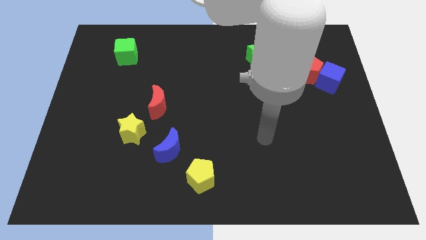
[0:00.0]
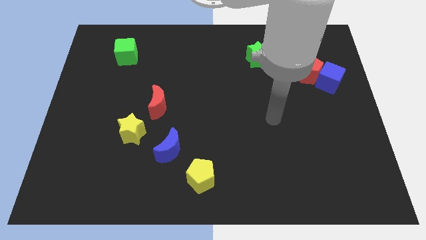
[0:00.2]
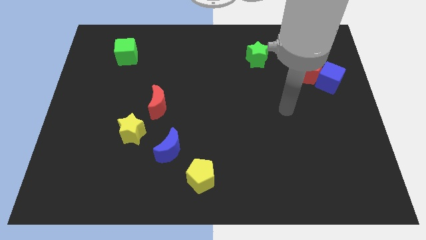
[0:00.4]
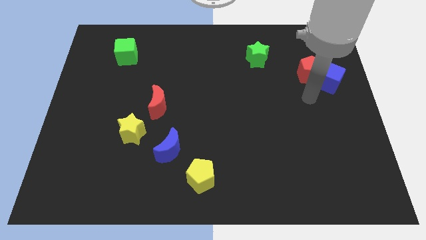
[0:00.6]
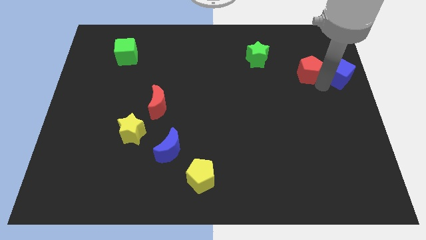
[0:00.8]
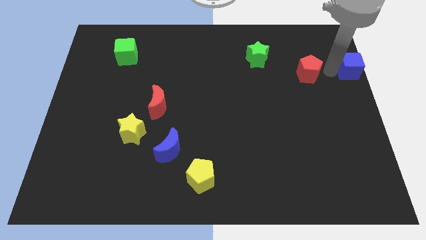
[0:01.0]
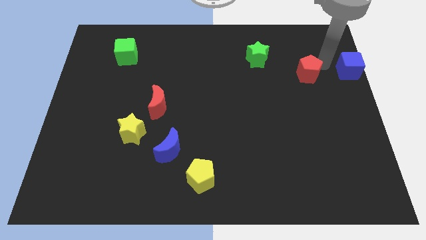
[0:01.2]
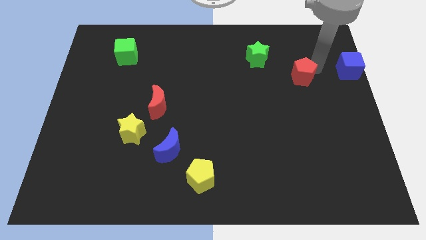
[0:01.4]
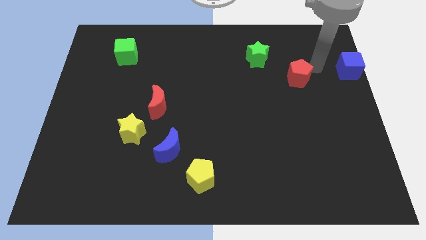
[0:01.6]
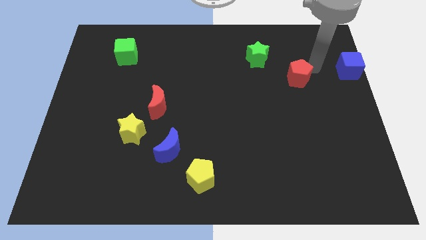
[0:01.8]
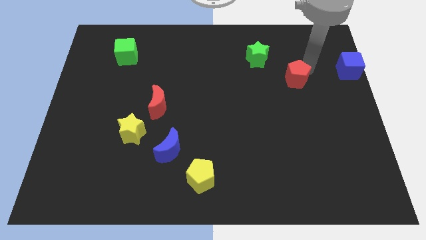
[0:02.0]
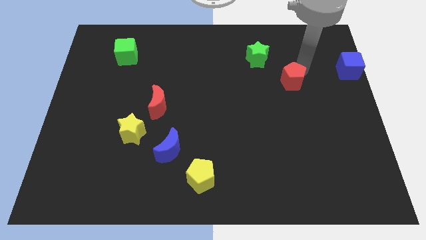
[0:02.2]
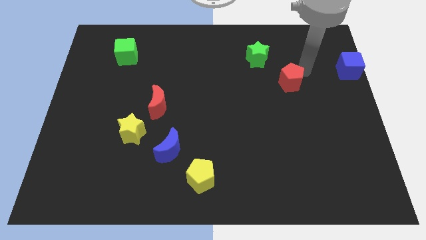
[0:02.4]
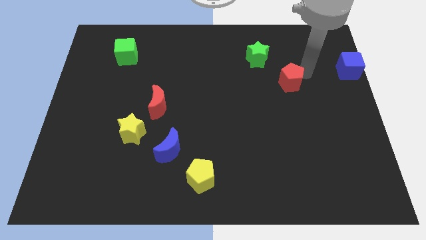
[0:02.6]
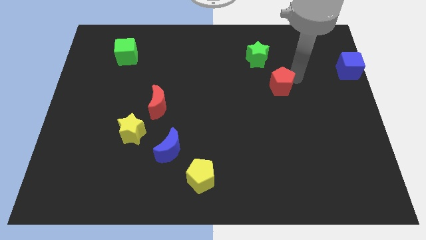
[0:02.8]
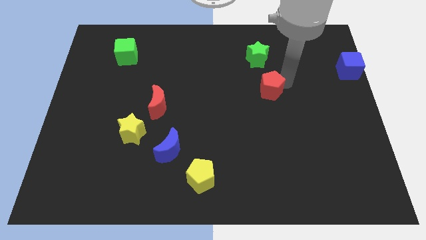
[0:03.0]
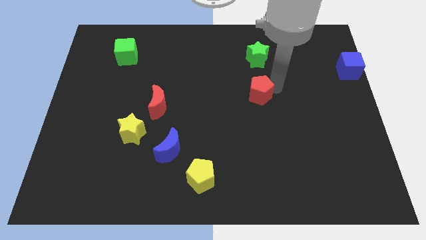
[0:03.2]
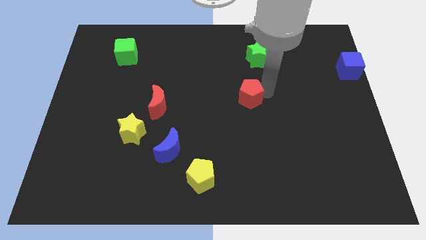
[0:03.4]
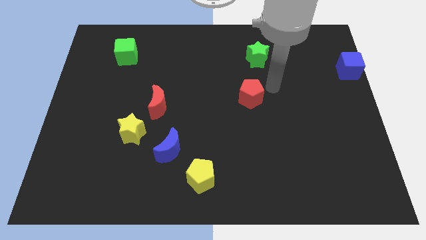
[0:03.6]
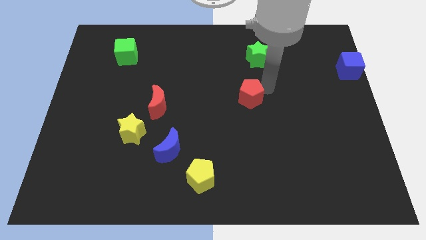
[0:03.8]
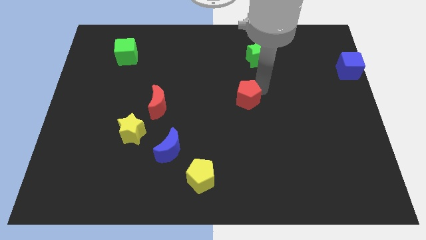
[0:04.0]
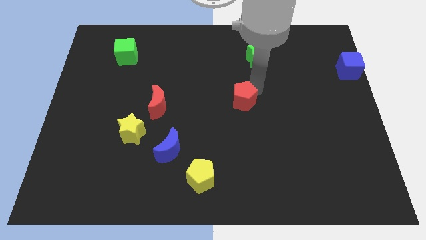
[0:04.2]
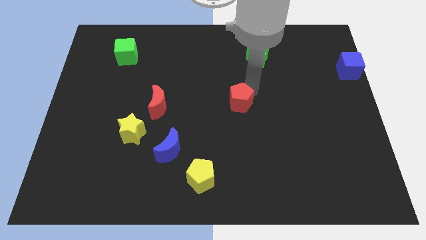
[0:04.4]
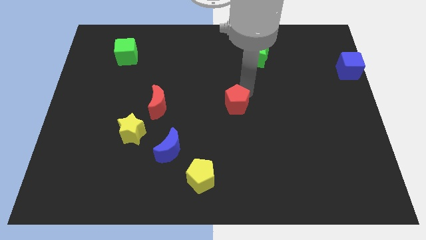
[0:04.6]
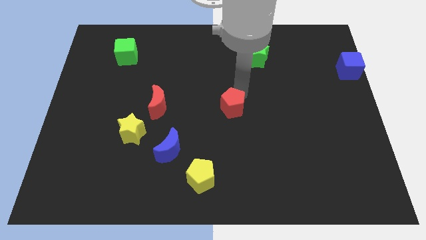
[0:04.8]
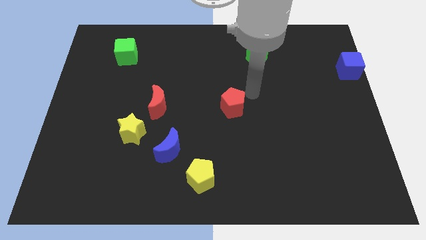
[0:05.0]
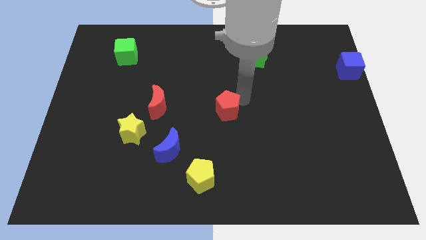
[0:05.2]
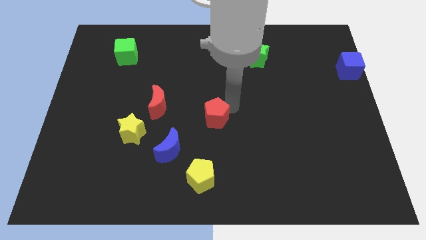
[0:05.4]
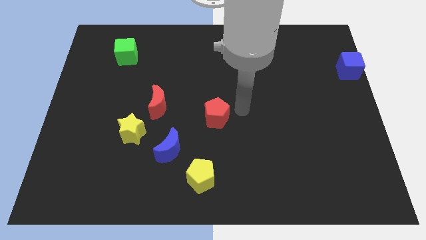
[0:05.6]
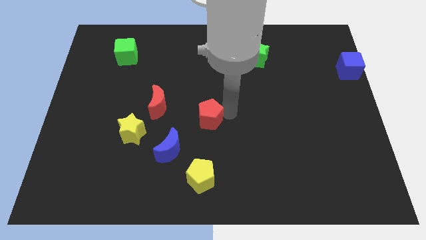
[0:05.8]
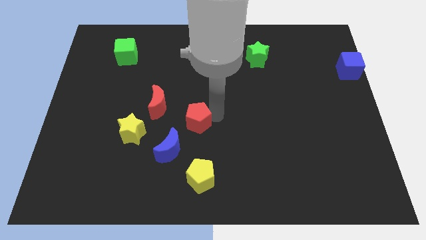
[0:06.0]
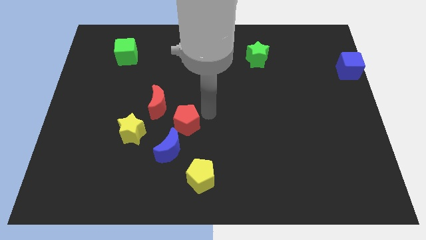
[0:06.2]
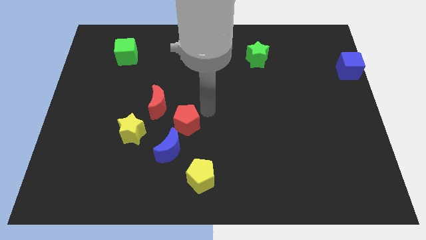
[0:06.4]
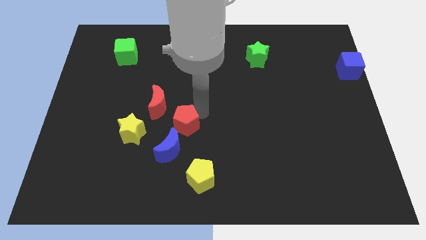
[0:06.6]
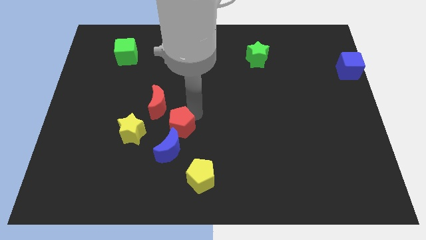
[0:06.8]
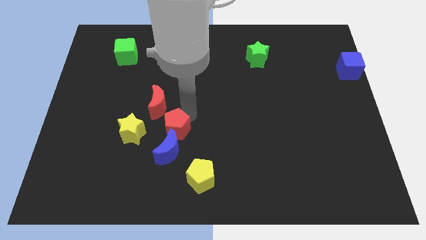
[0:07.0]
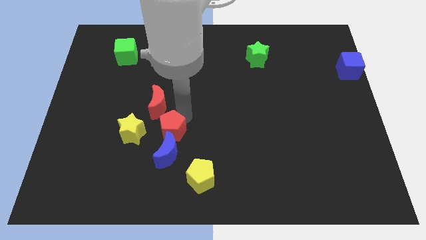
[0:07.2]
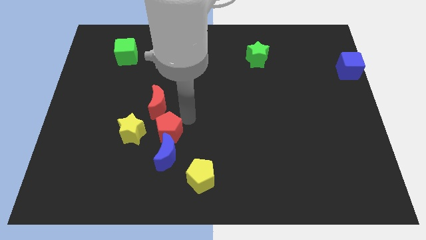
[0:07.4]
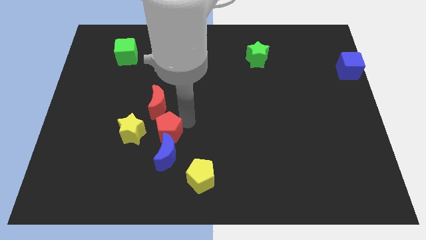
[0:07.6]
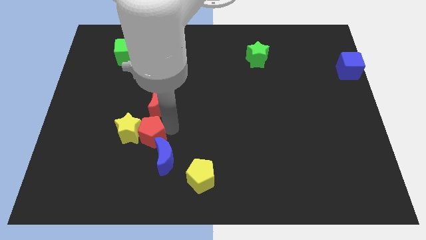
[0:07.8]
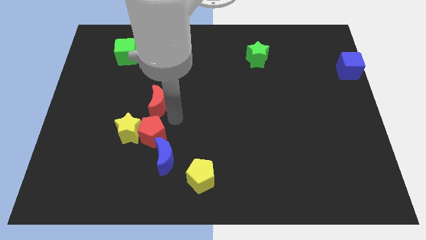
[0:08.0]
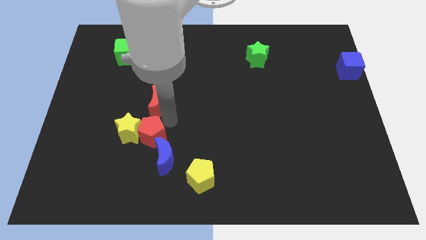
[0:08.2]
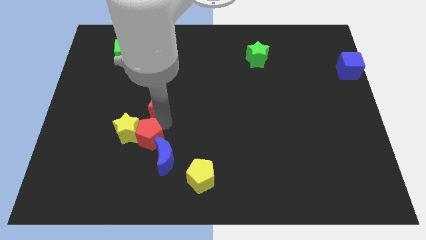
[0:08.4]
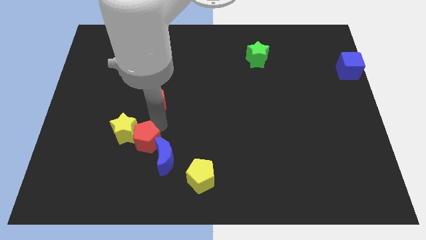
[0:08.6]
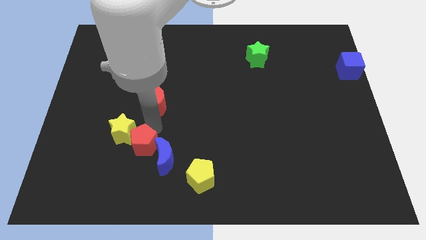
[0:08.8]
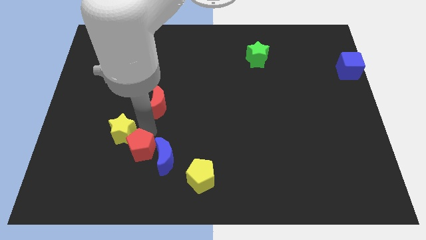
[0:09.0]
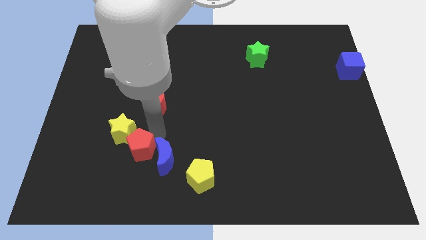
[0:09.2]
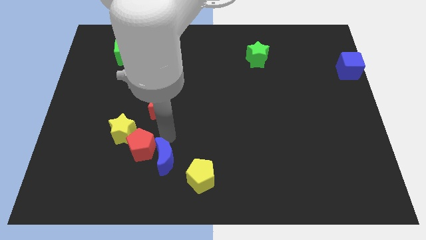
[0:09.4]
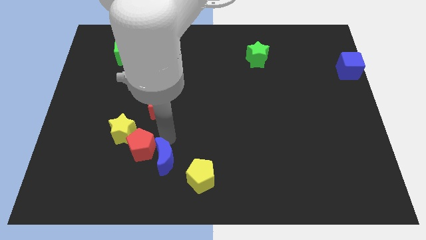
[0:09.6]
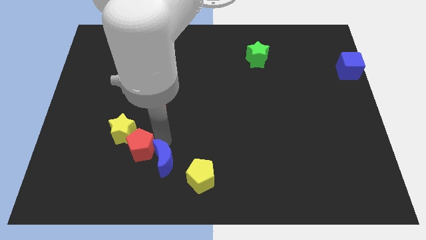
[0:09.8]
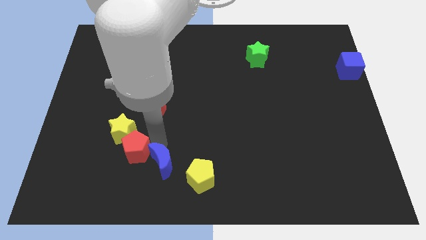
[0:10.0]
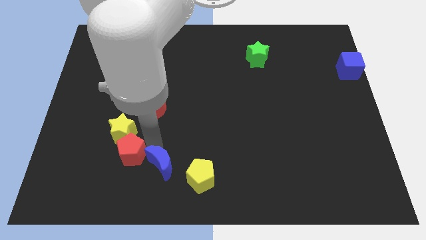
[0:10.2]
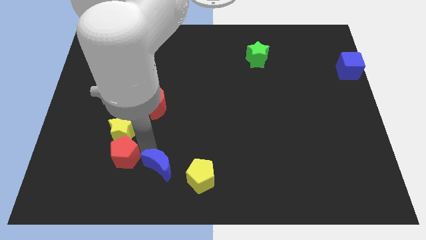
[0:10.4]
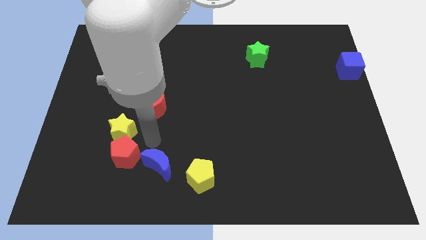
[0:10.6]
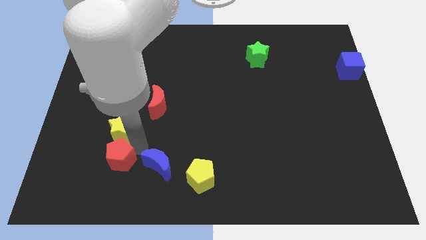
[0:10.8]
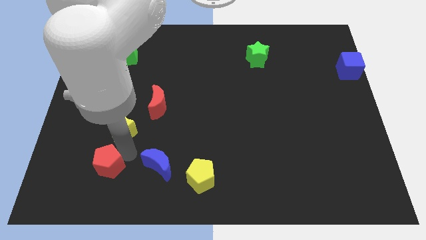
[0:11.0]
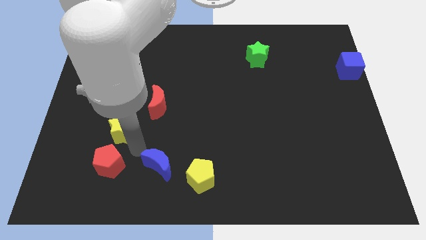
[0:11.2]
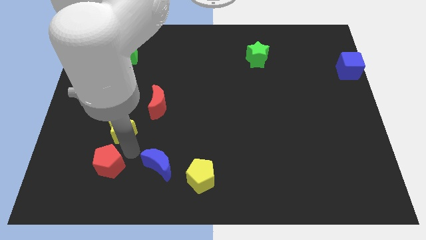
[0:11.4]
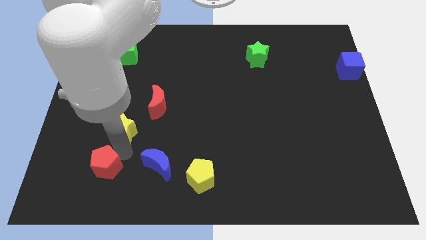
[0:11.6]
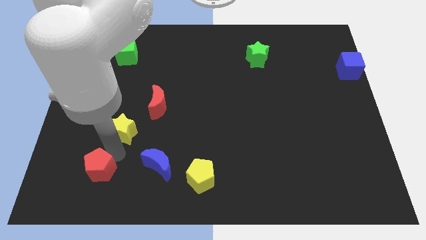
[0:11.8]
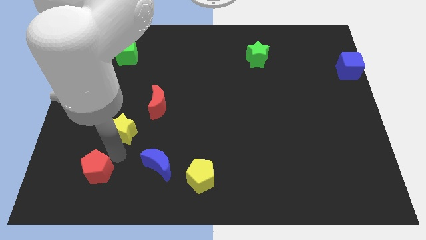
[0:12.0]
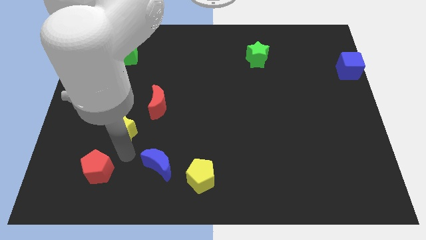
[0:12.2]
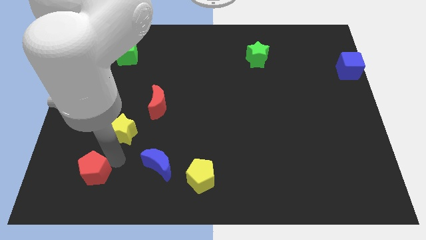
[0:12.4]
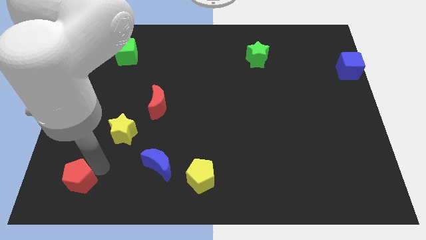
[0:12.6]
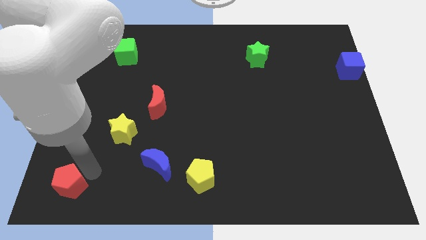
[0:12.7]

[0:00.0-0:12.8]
move the red pentagon to the bottom left
